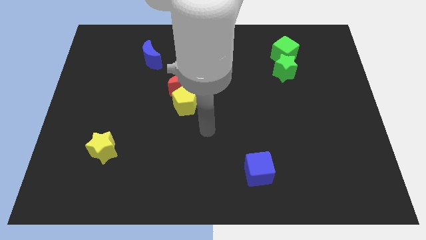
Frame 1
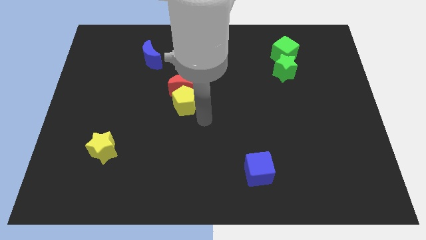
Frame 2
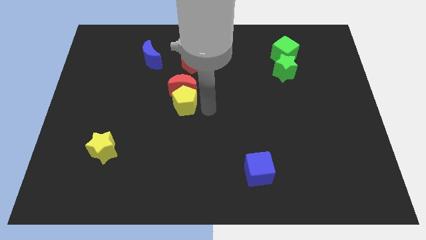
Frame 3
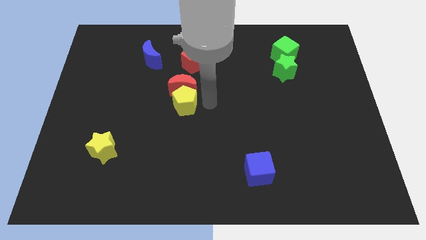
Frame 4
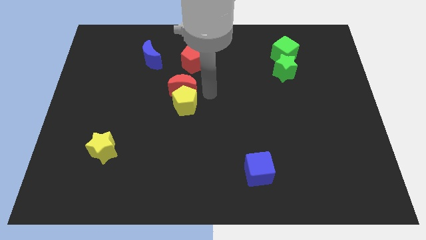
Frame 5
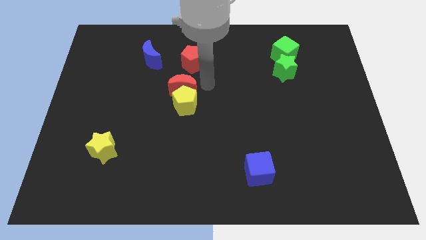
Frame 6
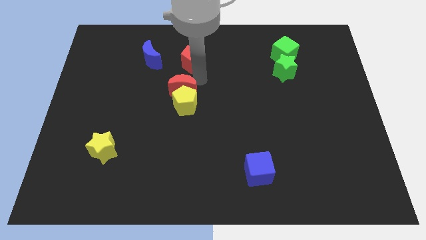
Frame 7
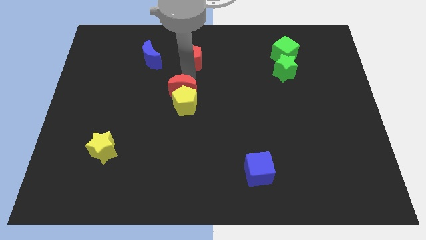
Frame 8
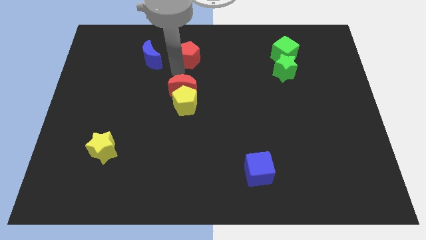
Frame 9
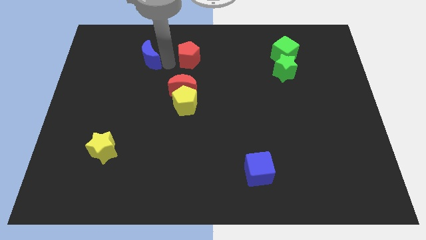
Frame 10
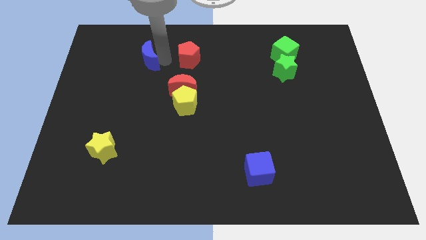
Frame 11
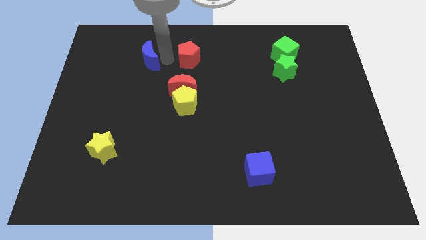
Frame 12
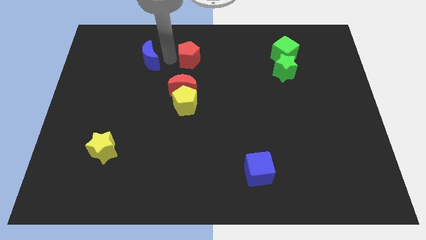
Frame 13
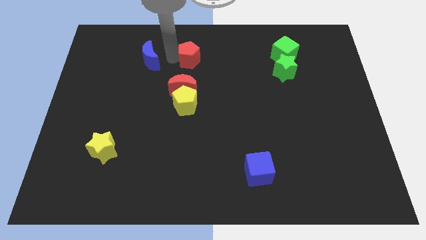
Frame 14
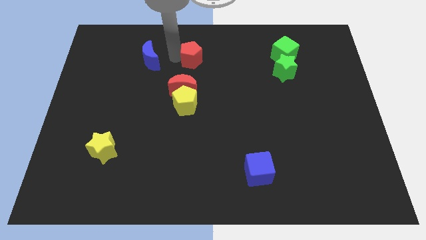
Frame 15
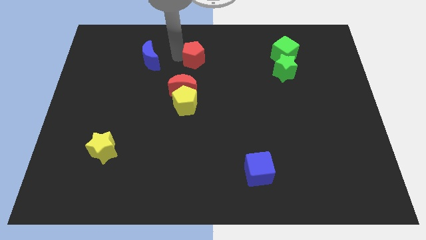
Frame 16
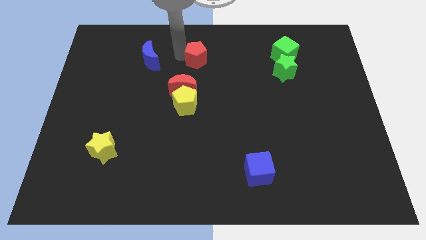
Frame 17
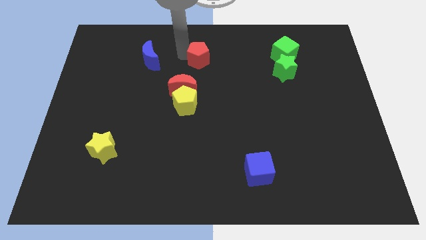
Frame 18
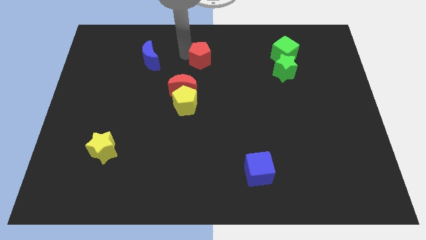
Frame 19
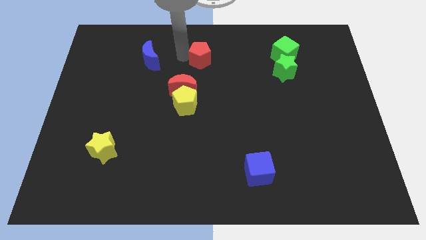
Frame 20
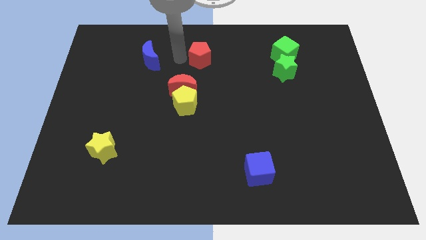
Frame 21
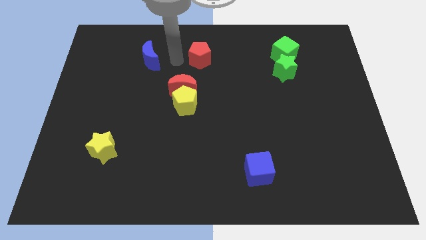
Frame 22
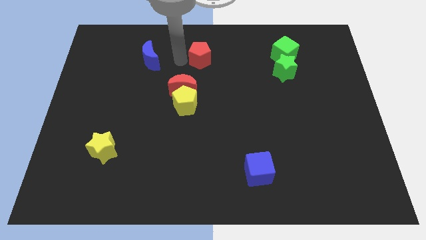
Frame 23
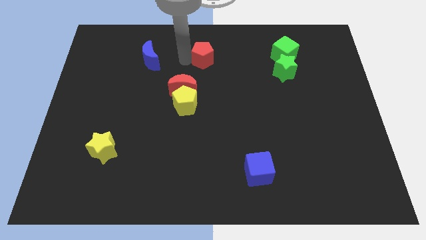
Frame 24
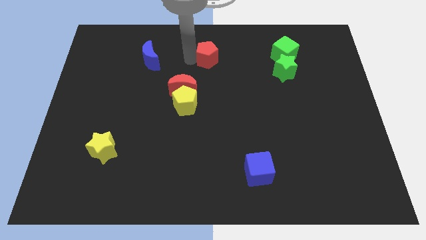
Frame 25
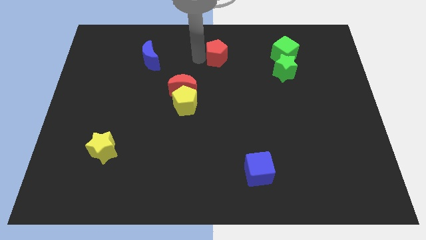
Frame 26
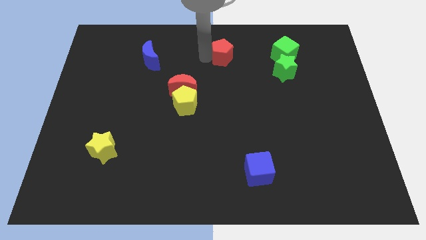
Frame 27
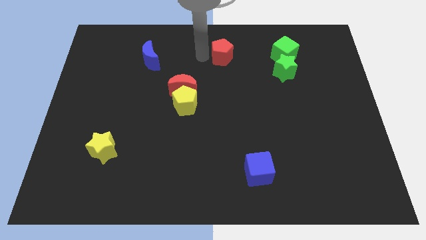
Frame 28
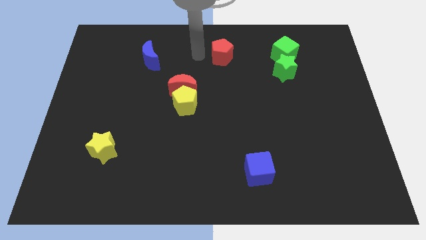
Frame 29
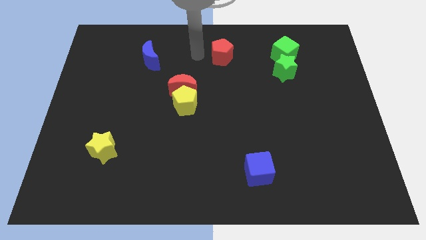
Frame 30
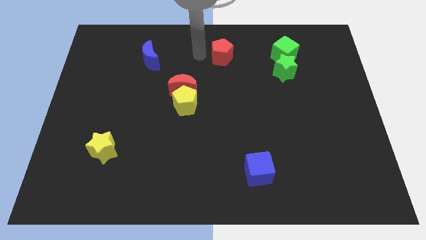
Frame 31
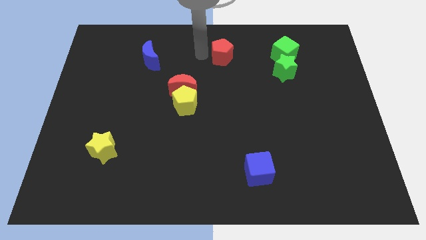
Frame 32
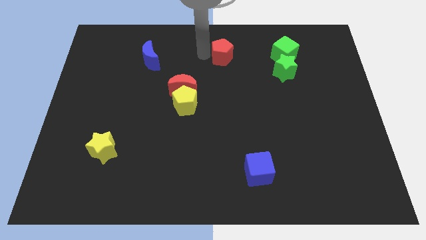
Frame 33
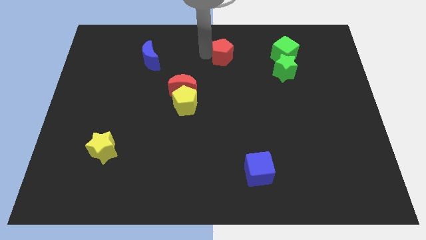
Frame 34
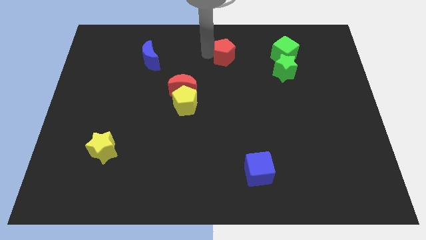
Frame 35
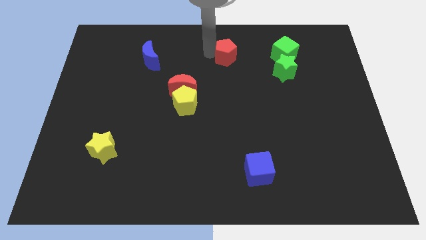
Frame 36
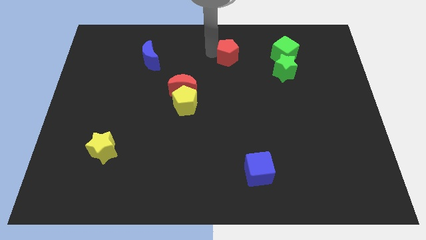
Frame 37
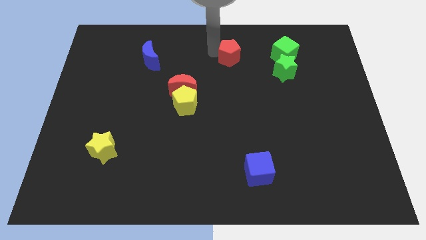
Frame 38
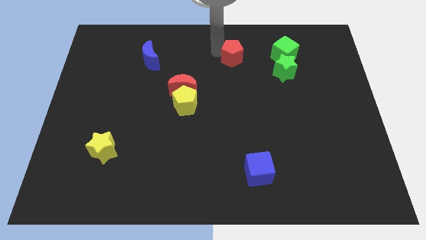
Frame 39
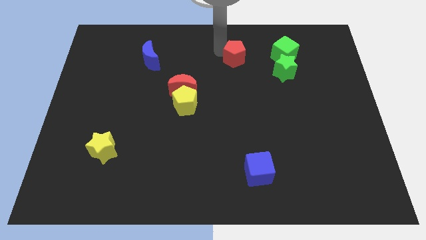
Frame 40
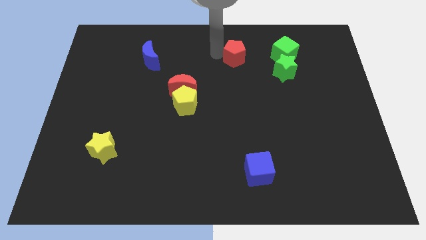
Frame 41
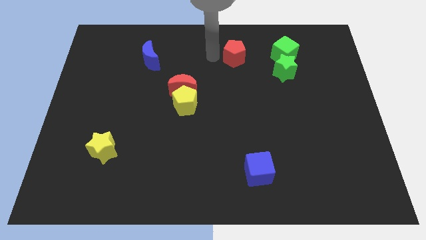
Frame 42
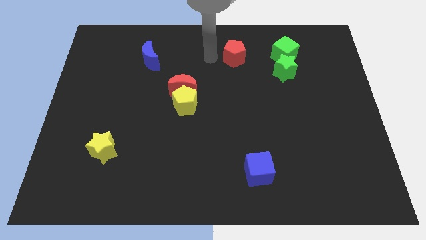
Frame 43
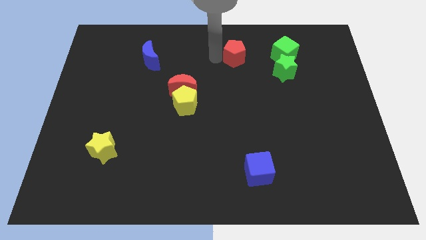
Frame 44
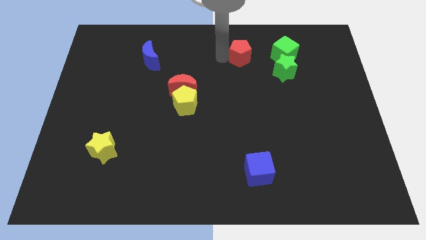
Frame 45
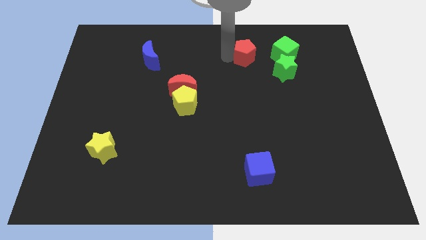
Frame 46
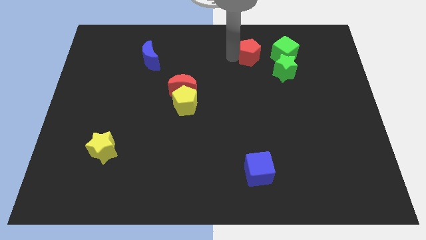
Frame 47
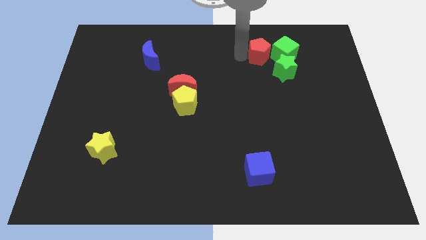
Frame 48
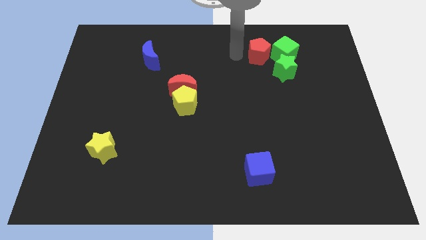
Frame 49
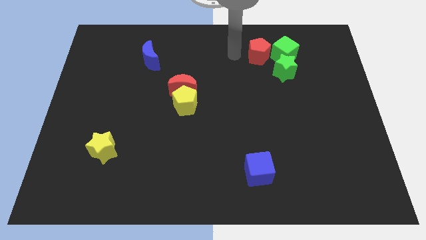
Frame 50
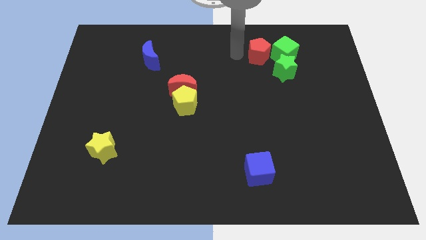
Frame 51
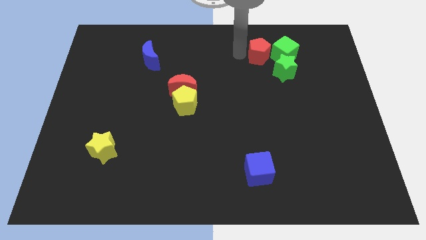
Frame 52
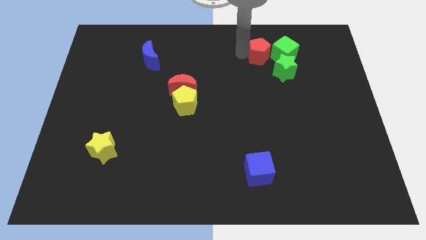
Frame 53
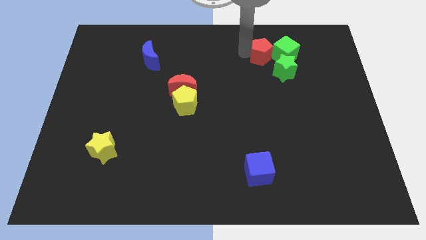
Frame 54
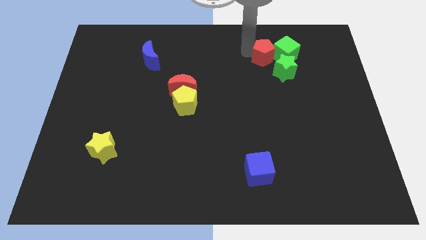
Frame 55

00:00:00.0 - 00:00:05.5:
push the red pentagon to the green cube

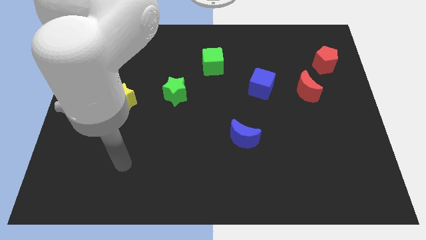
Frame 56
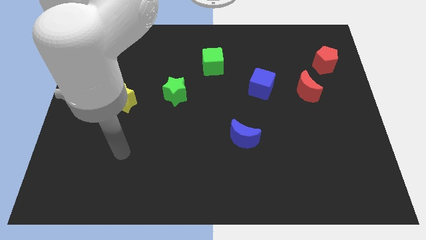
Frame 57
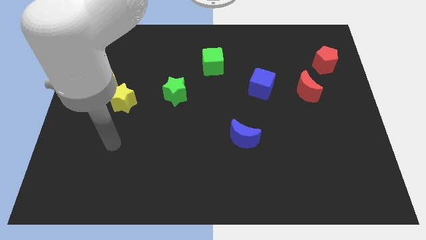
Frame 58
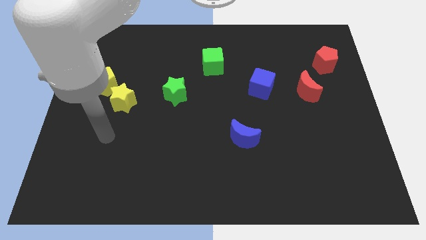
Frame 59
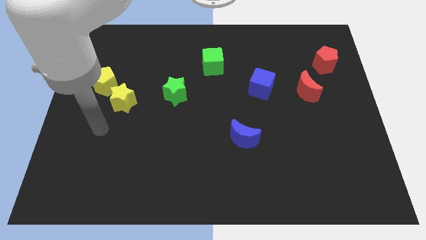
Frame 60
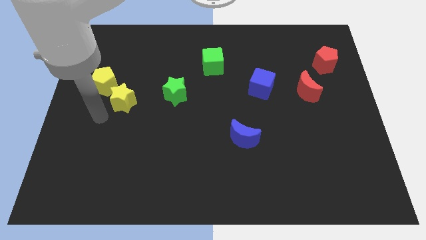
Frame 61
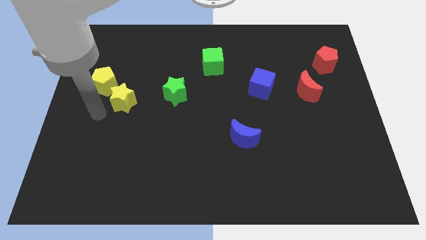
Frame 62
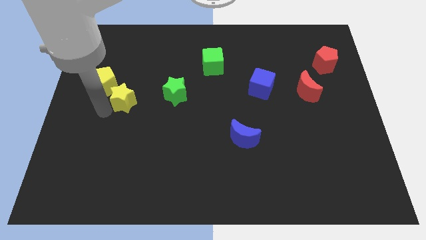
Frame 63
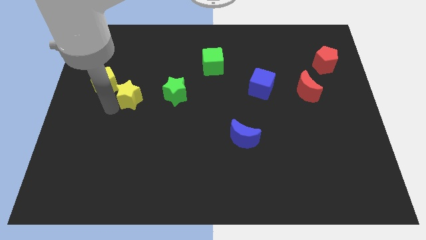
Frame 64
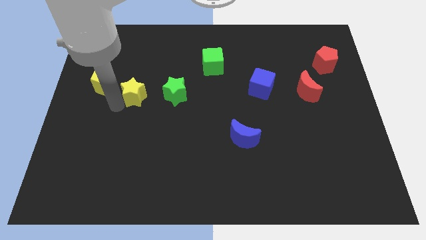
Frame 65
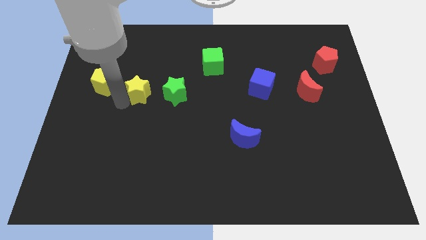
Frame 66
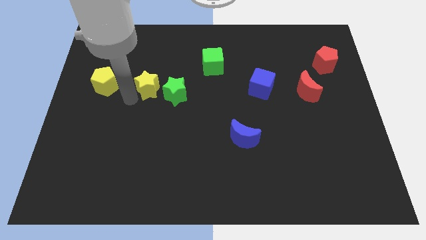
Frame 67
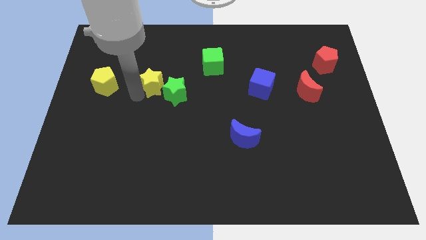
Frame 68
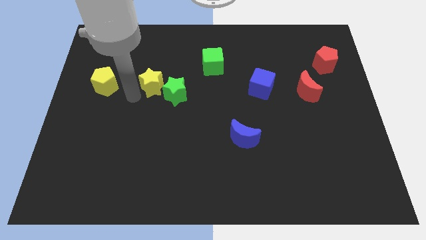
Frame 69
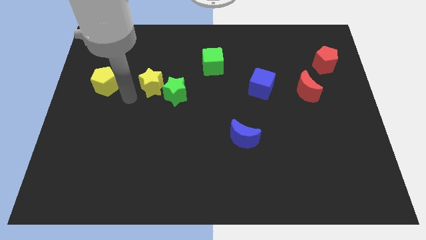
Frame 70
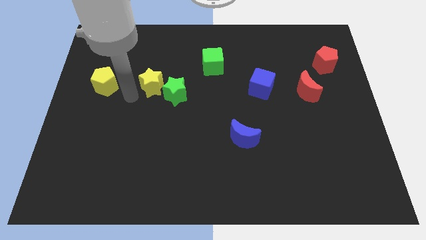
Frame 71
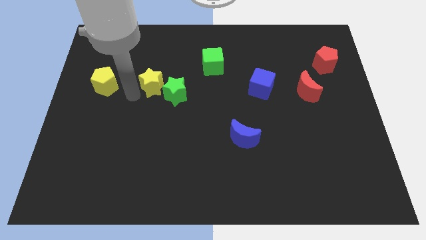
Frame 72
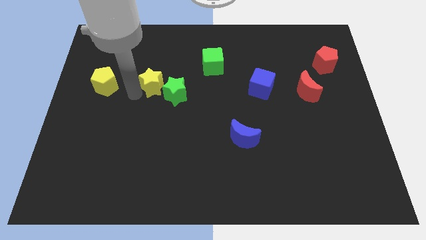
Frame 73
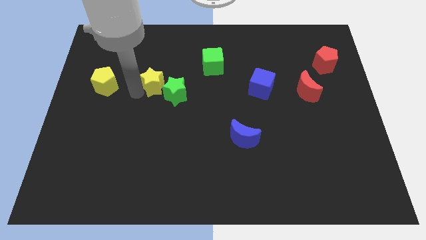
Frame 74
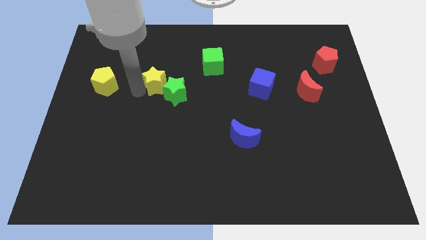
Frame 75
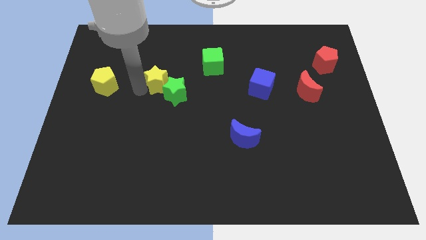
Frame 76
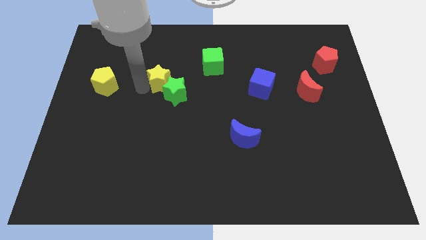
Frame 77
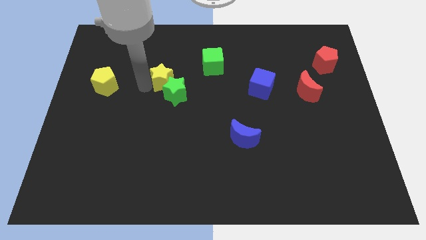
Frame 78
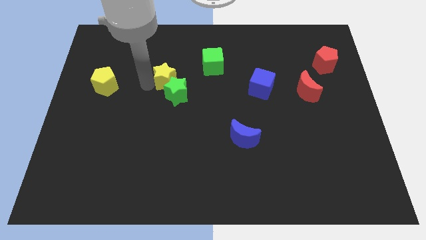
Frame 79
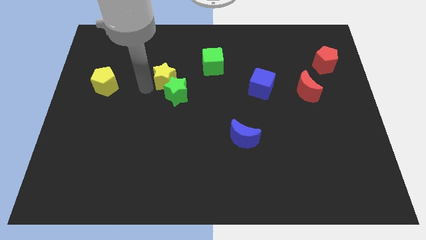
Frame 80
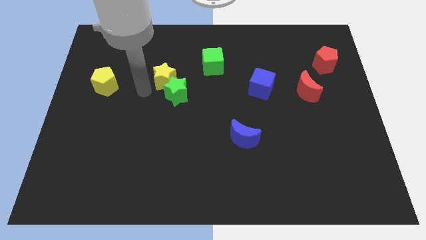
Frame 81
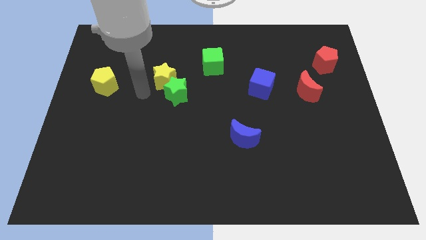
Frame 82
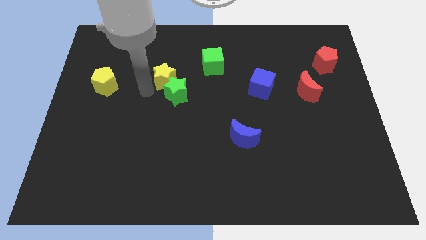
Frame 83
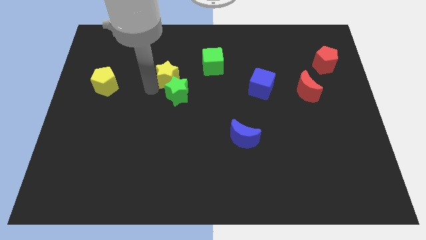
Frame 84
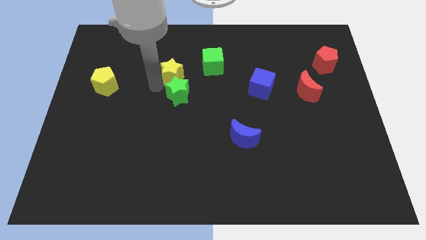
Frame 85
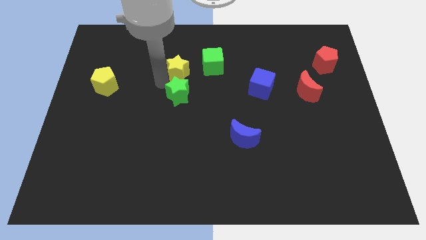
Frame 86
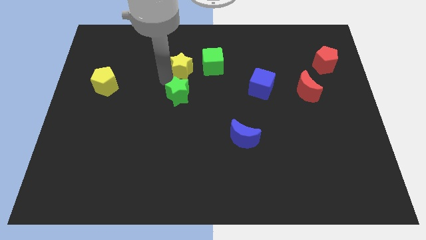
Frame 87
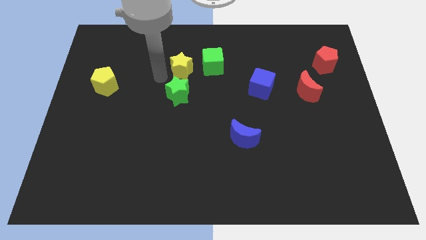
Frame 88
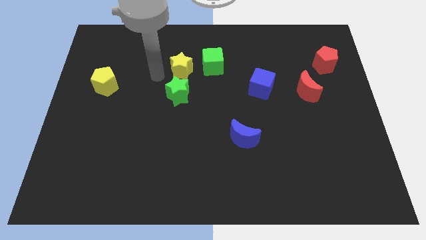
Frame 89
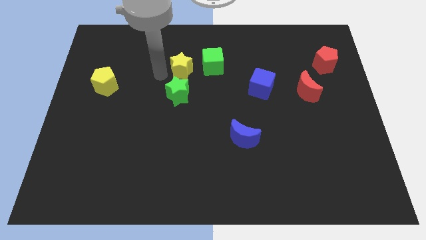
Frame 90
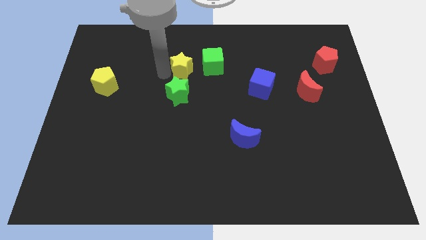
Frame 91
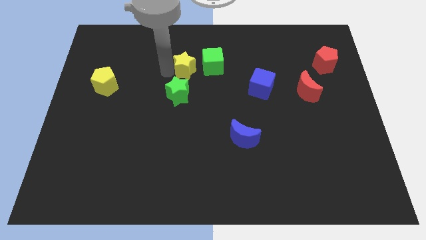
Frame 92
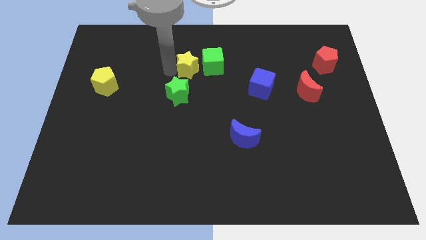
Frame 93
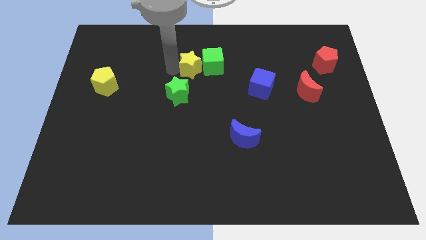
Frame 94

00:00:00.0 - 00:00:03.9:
slide the yellow star next to the green cube
